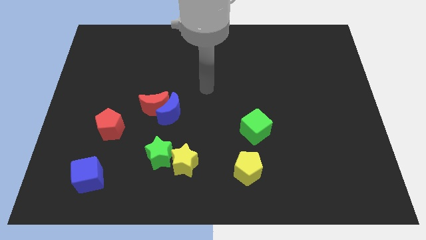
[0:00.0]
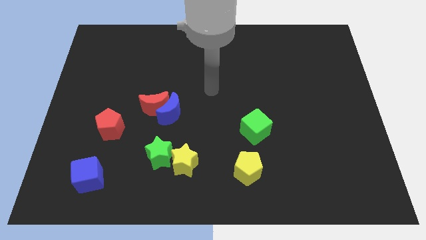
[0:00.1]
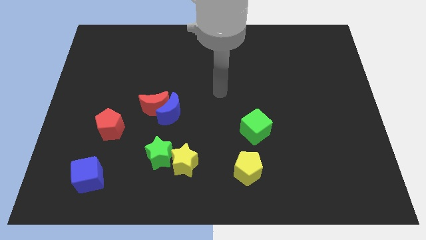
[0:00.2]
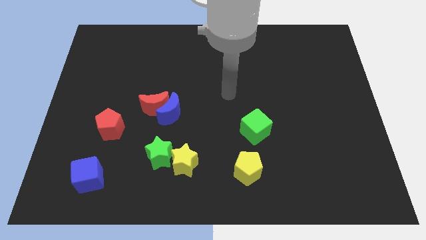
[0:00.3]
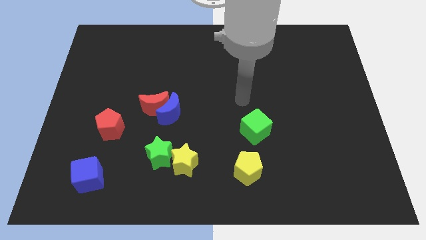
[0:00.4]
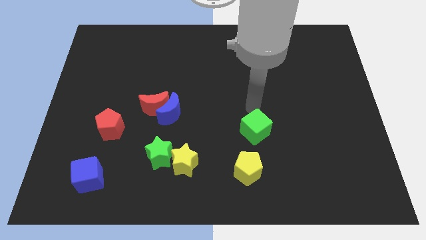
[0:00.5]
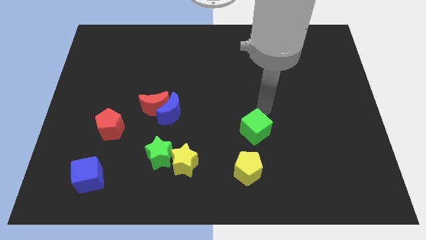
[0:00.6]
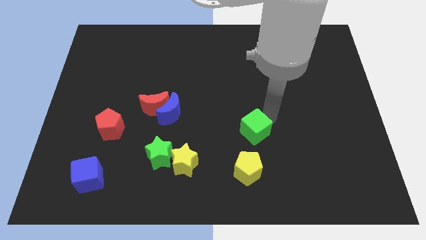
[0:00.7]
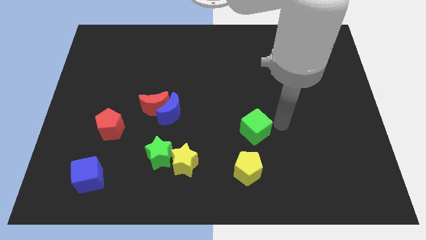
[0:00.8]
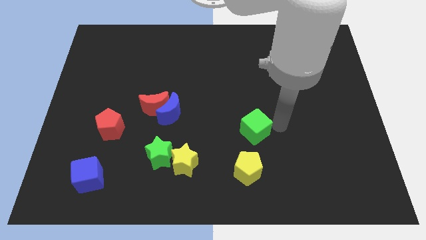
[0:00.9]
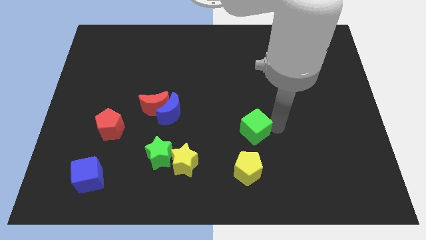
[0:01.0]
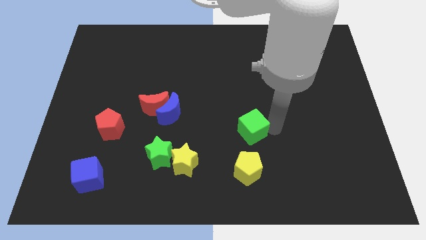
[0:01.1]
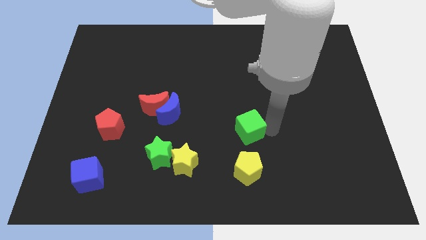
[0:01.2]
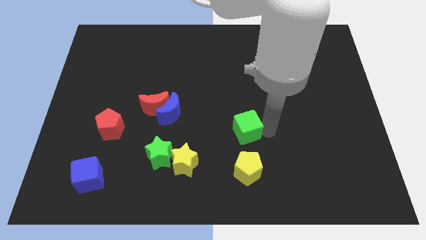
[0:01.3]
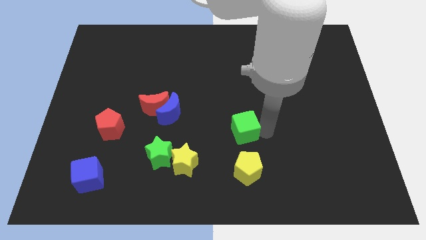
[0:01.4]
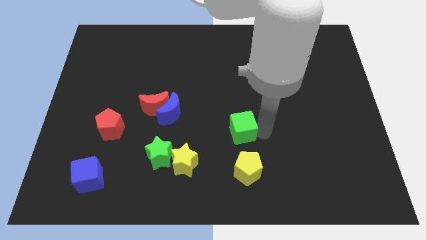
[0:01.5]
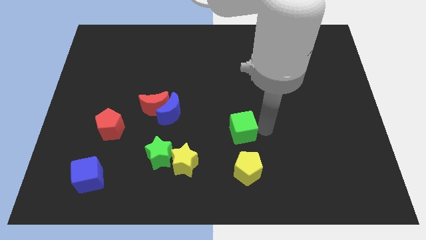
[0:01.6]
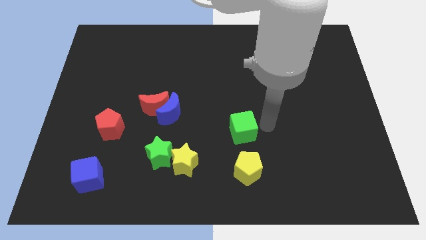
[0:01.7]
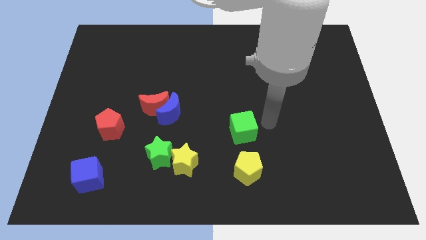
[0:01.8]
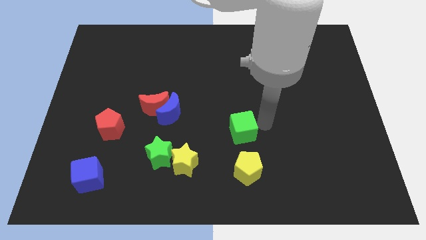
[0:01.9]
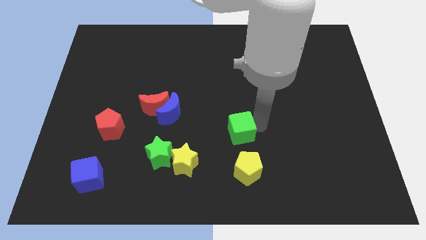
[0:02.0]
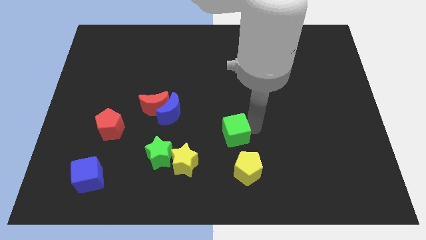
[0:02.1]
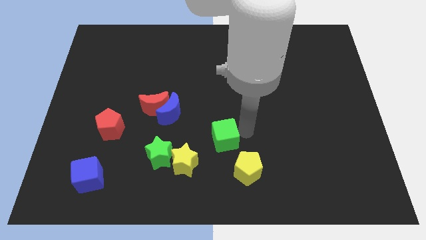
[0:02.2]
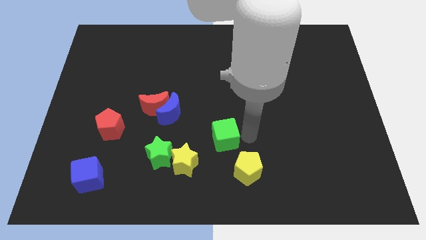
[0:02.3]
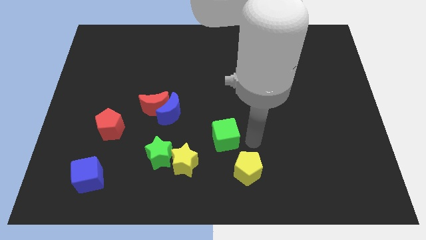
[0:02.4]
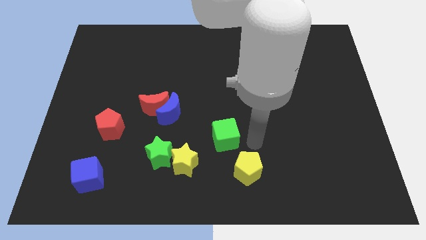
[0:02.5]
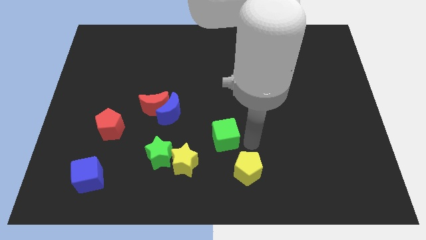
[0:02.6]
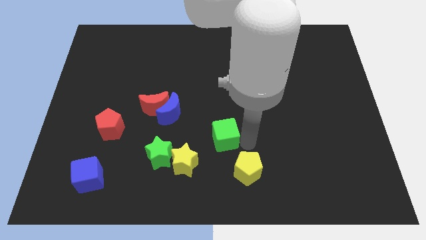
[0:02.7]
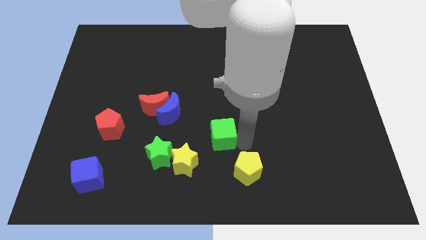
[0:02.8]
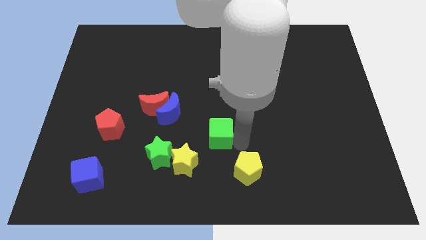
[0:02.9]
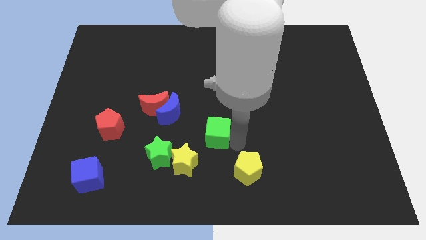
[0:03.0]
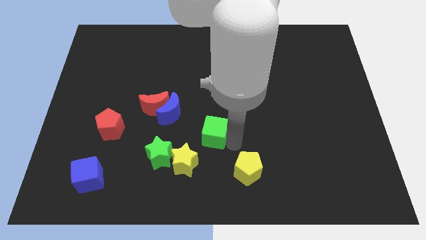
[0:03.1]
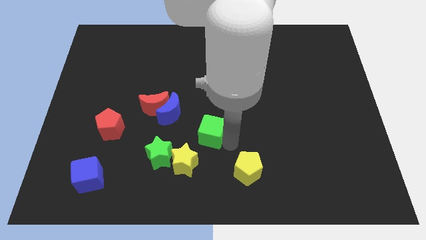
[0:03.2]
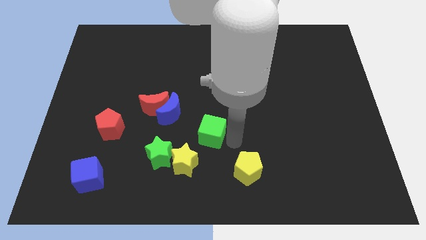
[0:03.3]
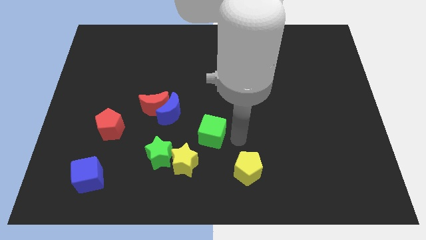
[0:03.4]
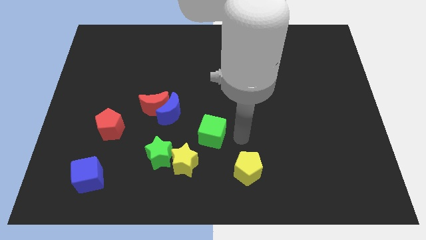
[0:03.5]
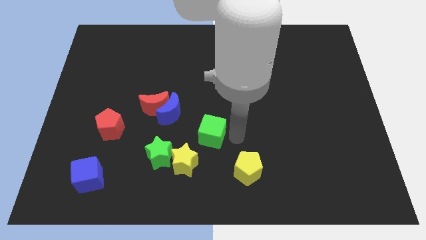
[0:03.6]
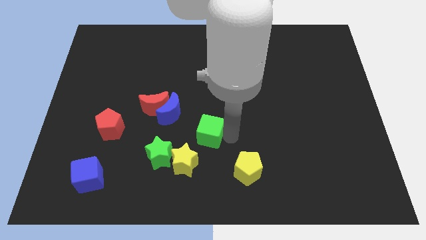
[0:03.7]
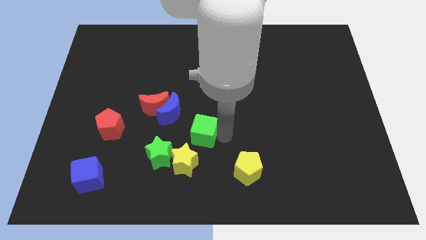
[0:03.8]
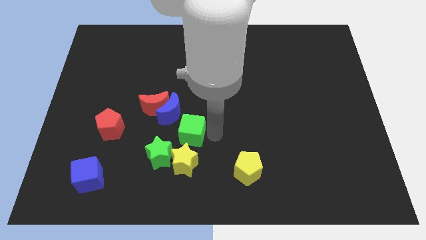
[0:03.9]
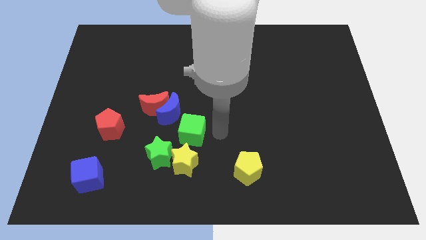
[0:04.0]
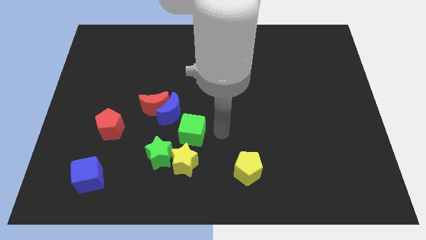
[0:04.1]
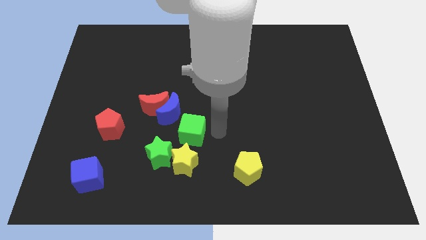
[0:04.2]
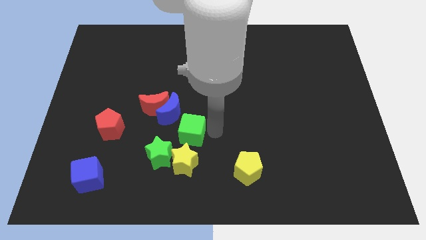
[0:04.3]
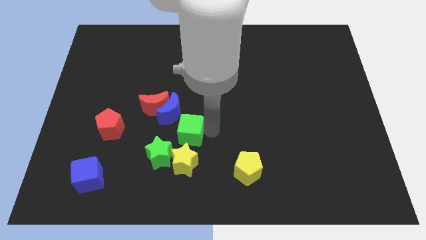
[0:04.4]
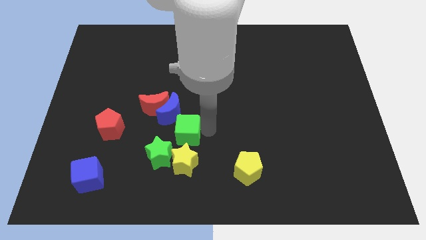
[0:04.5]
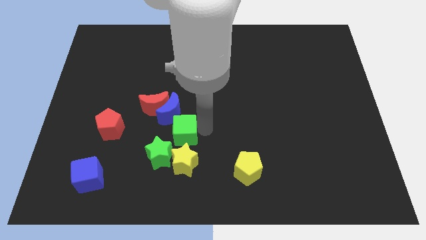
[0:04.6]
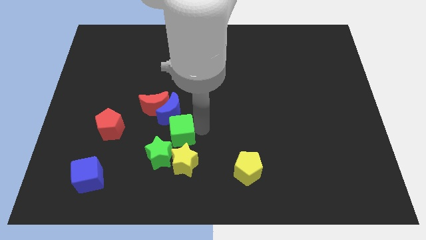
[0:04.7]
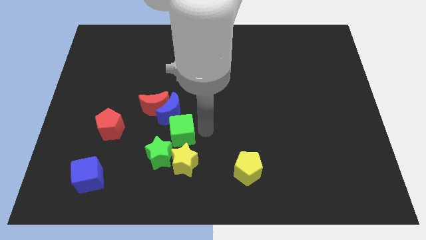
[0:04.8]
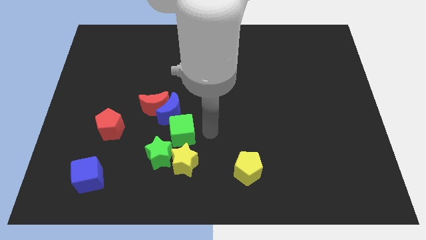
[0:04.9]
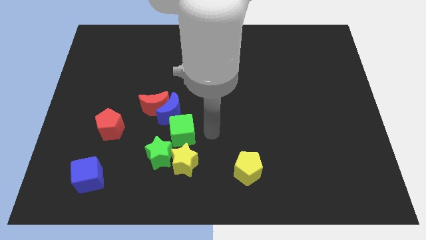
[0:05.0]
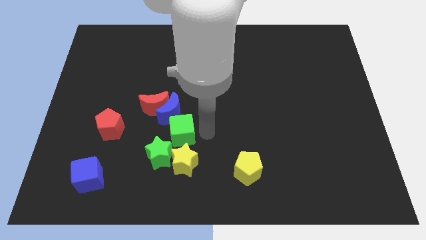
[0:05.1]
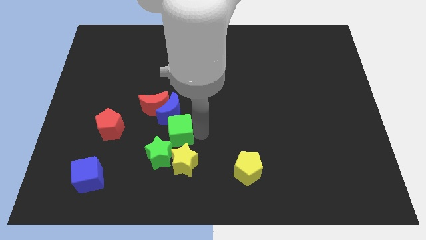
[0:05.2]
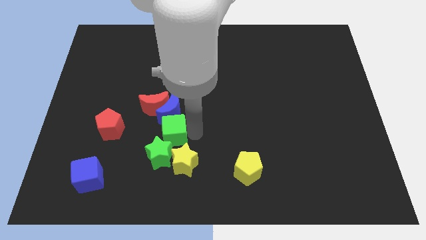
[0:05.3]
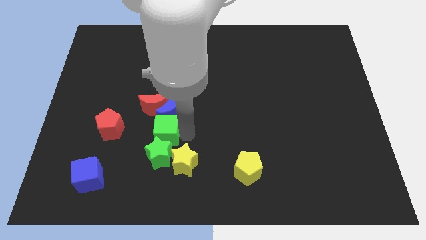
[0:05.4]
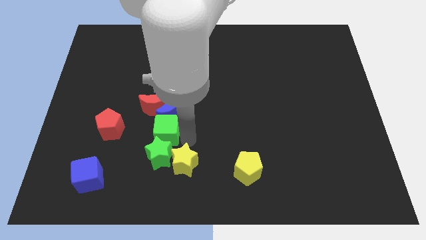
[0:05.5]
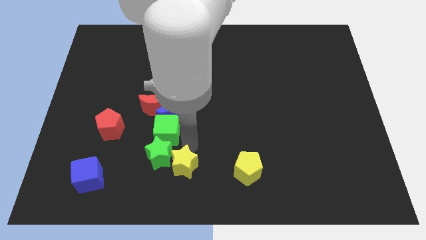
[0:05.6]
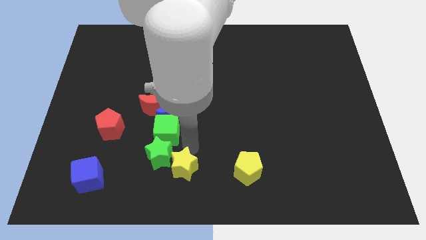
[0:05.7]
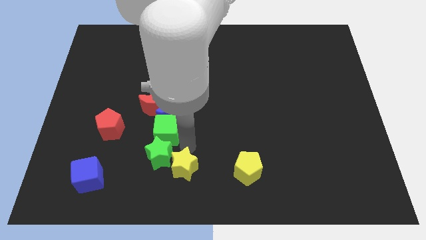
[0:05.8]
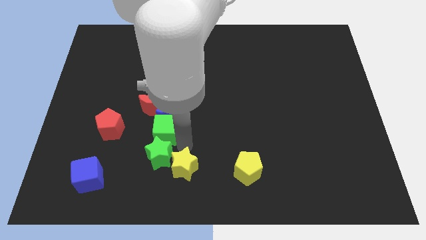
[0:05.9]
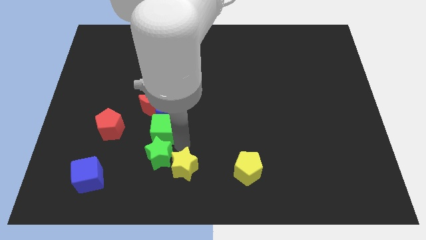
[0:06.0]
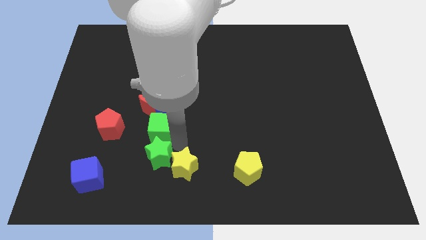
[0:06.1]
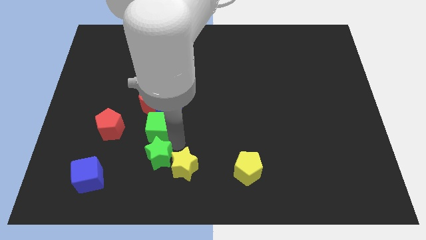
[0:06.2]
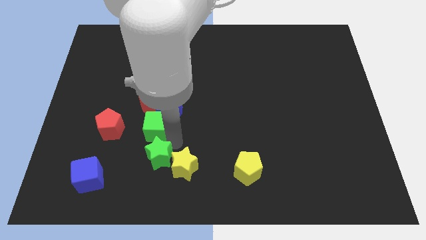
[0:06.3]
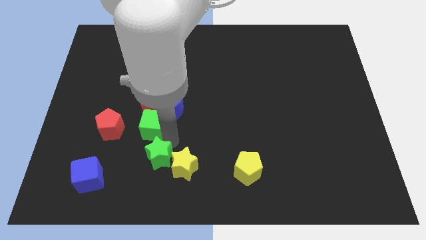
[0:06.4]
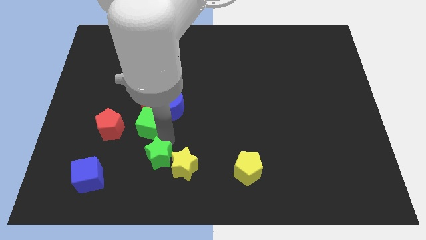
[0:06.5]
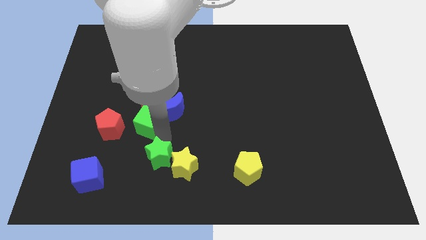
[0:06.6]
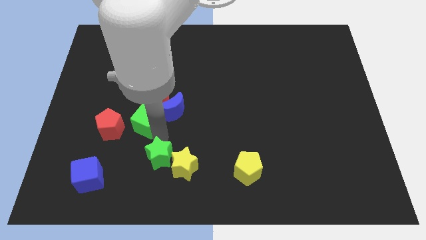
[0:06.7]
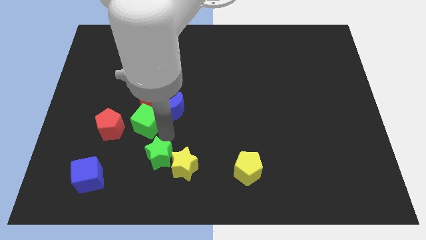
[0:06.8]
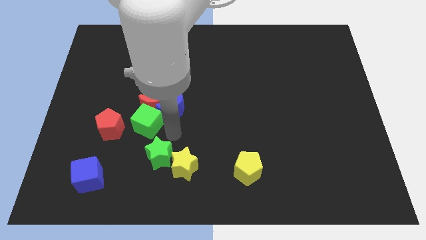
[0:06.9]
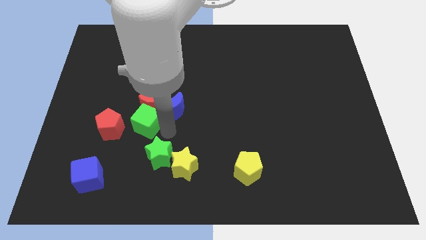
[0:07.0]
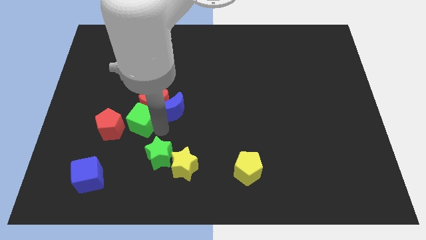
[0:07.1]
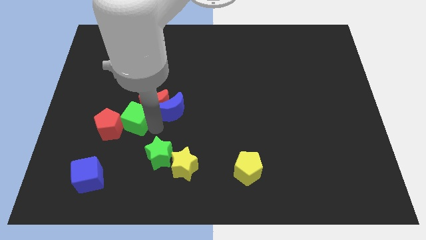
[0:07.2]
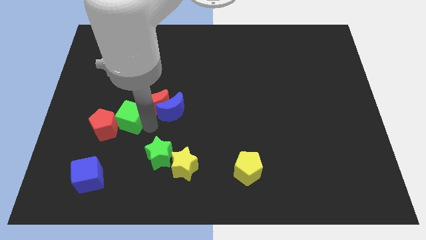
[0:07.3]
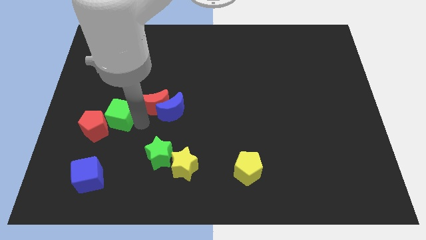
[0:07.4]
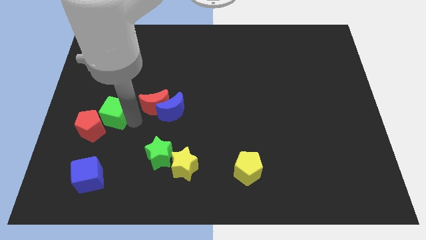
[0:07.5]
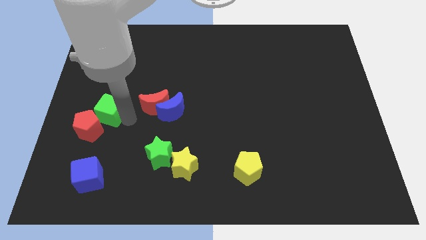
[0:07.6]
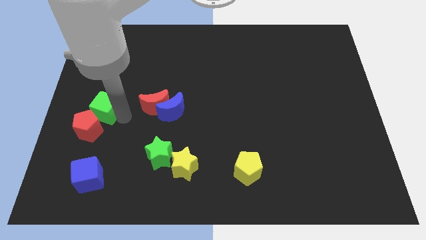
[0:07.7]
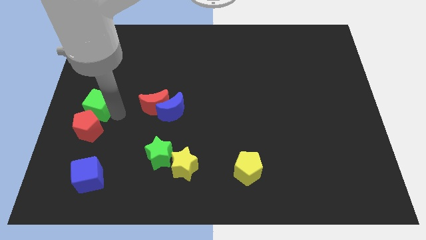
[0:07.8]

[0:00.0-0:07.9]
move the green cube to the center left
